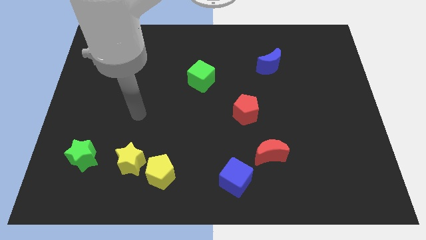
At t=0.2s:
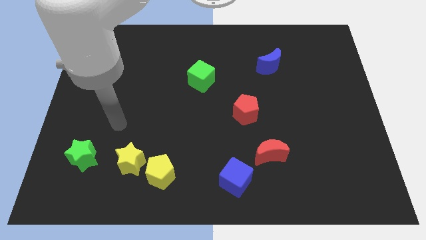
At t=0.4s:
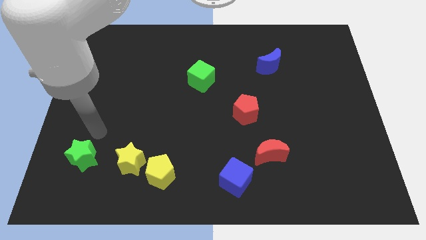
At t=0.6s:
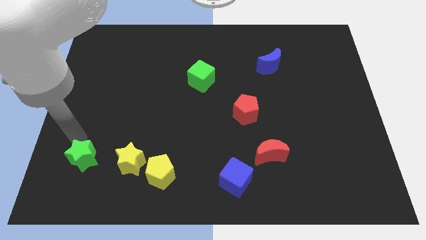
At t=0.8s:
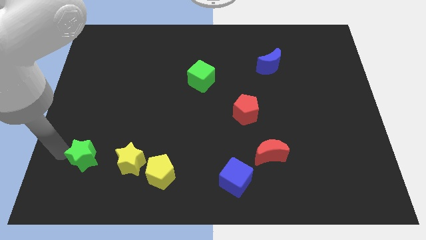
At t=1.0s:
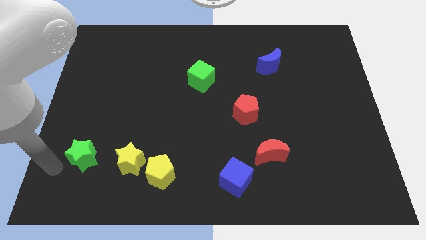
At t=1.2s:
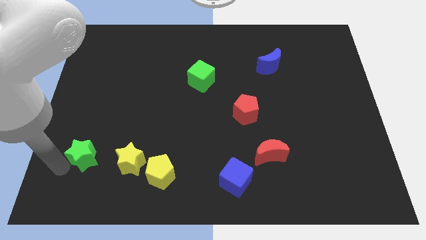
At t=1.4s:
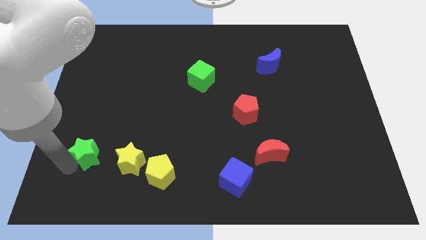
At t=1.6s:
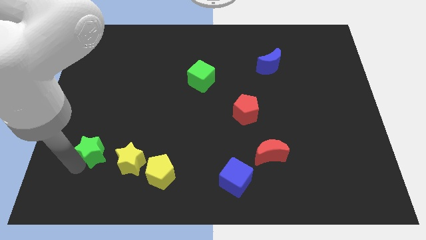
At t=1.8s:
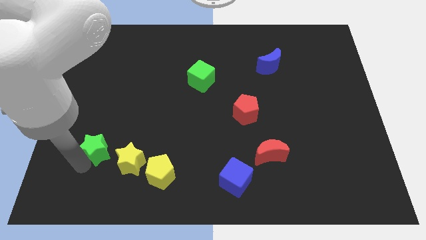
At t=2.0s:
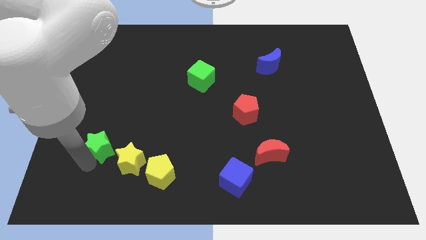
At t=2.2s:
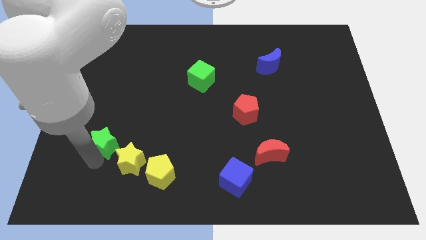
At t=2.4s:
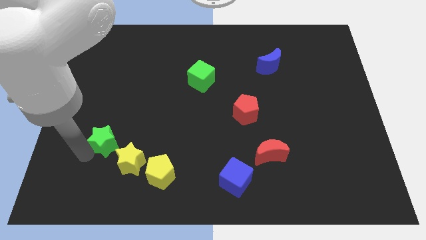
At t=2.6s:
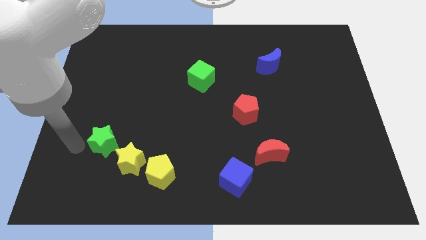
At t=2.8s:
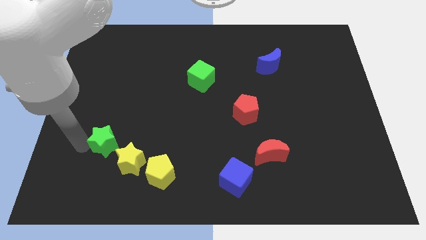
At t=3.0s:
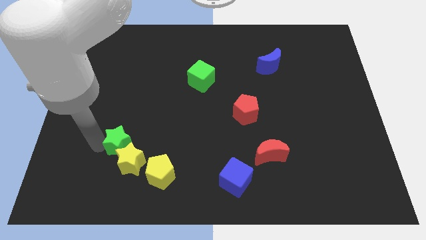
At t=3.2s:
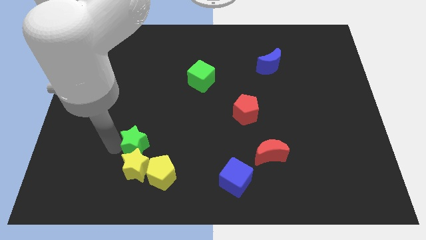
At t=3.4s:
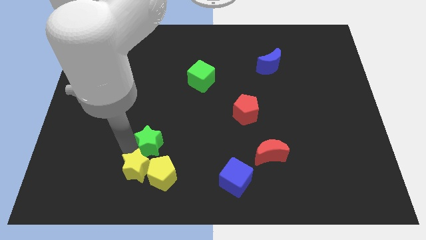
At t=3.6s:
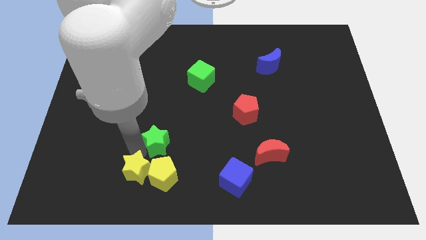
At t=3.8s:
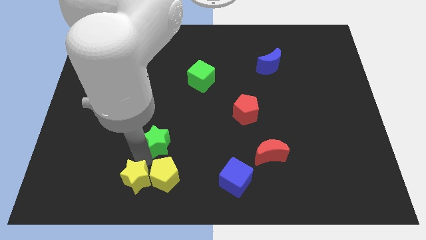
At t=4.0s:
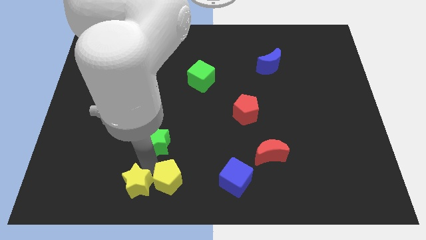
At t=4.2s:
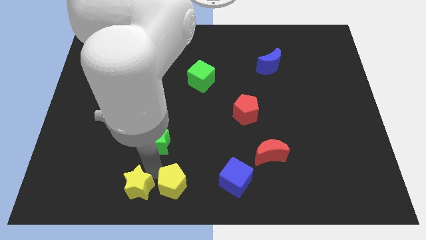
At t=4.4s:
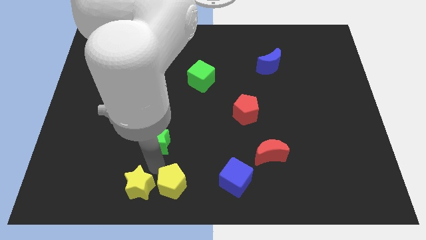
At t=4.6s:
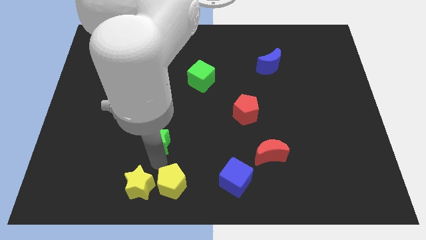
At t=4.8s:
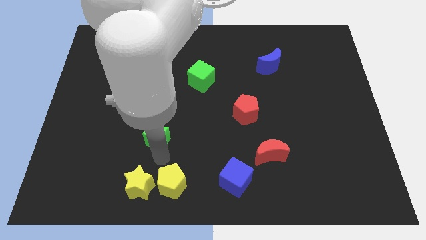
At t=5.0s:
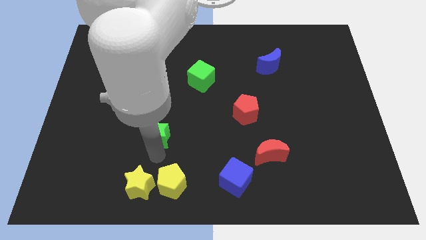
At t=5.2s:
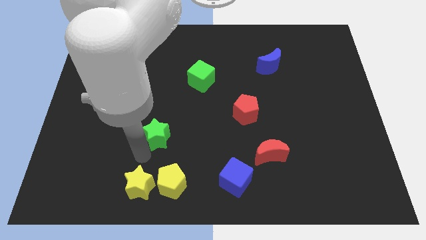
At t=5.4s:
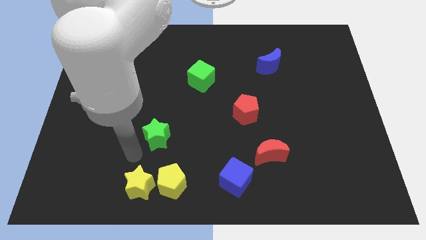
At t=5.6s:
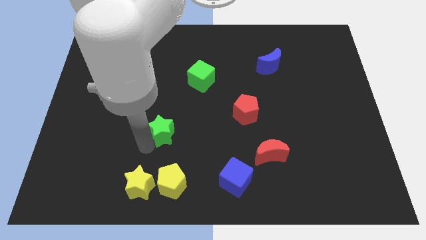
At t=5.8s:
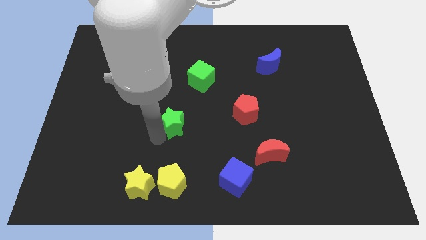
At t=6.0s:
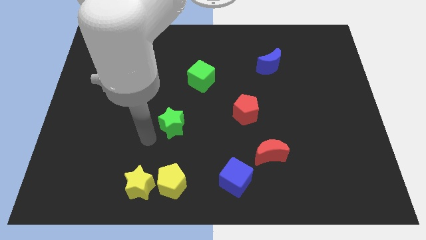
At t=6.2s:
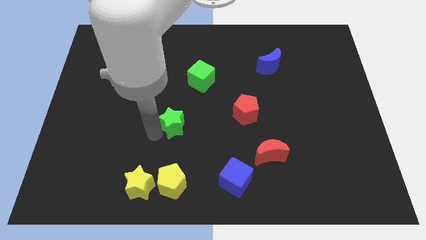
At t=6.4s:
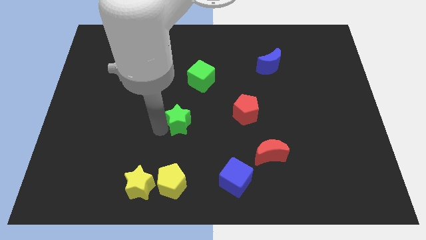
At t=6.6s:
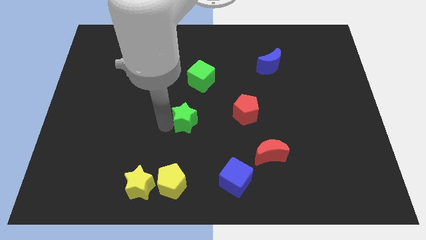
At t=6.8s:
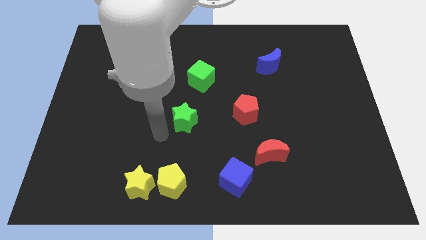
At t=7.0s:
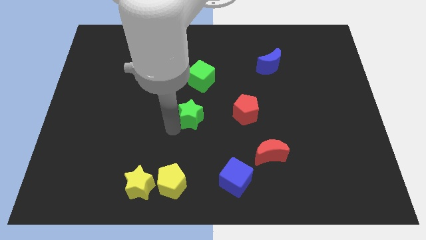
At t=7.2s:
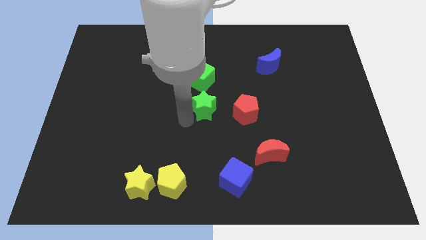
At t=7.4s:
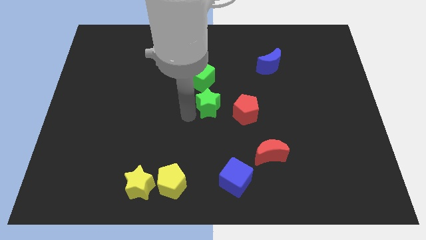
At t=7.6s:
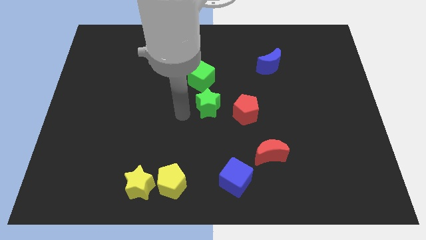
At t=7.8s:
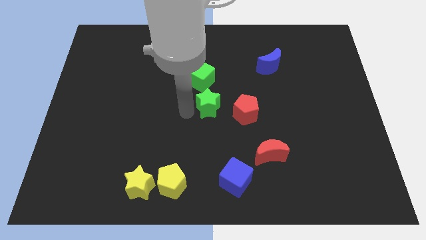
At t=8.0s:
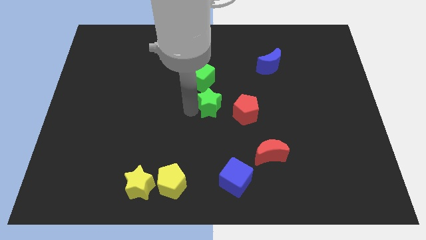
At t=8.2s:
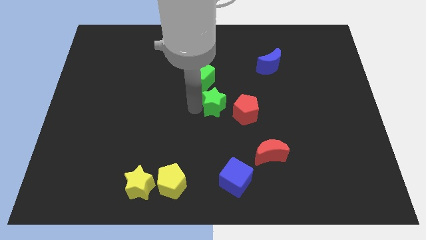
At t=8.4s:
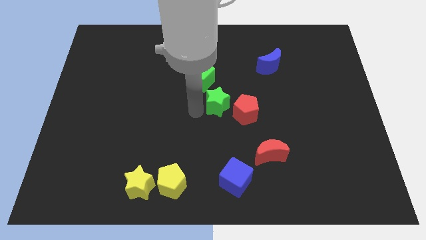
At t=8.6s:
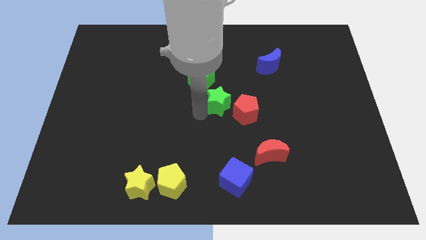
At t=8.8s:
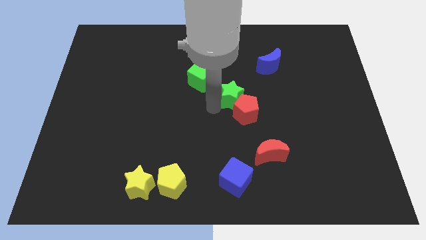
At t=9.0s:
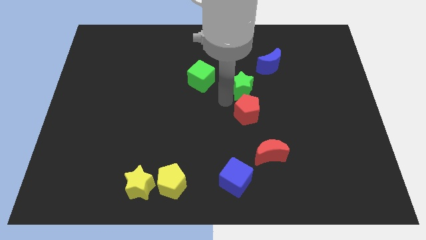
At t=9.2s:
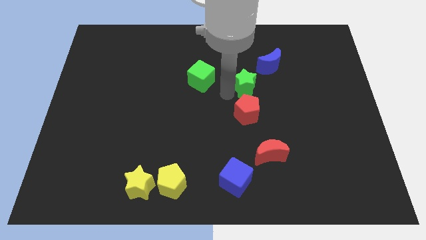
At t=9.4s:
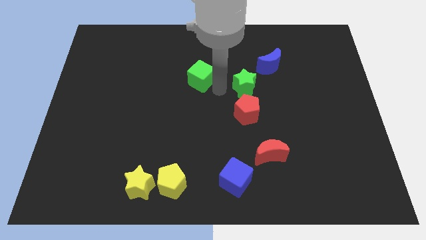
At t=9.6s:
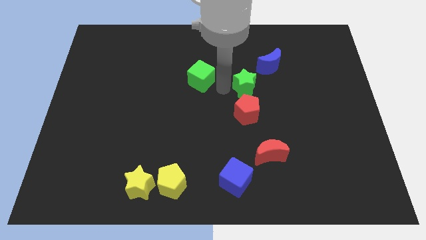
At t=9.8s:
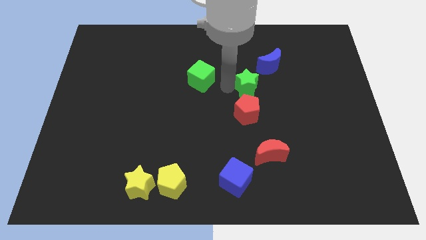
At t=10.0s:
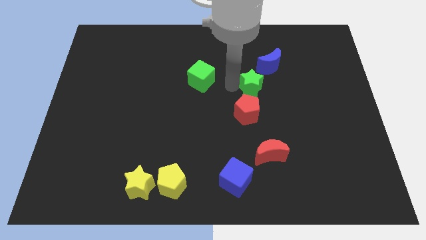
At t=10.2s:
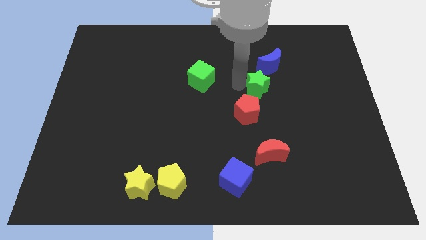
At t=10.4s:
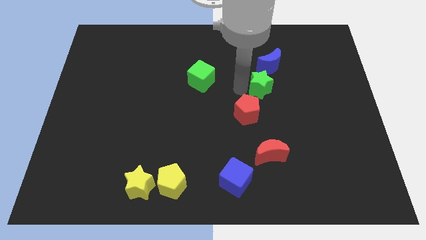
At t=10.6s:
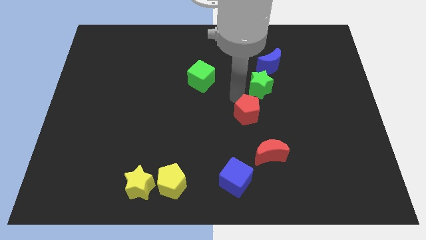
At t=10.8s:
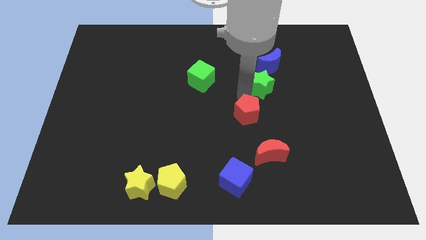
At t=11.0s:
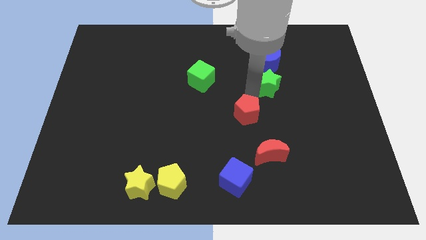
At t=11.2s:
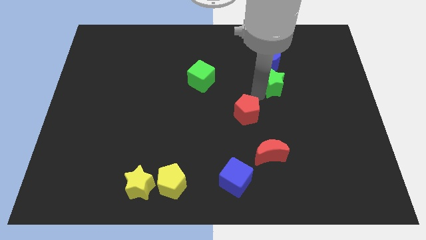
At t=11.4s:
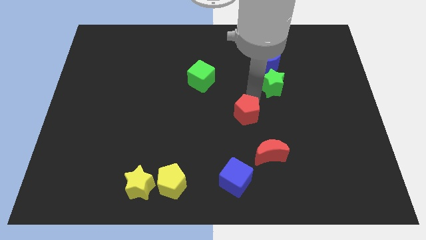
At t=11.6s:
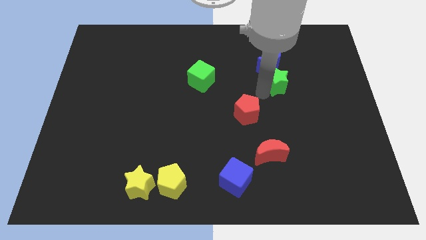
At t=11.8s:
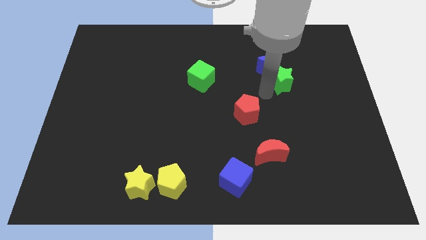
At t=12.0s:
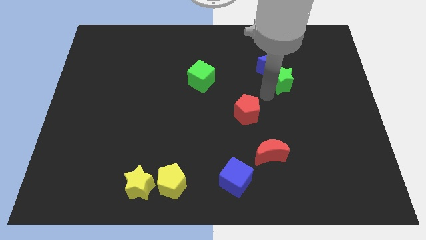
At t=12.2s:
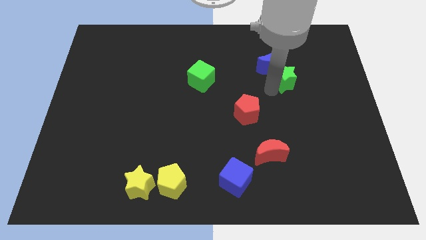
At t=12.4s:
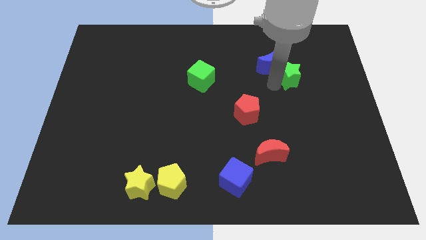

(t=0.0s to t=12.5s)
put the green star just right of the blue moon

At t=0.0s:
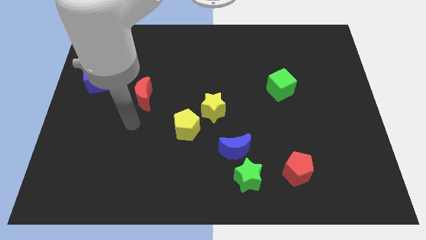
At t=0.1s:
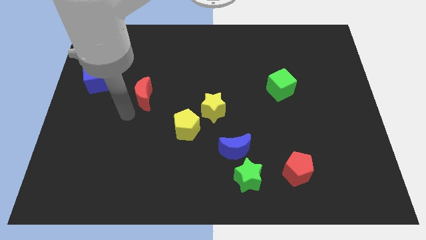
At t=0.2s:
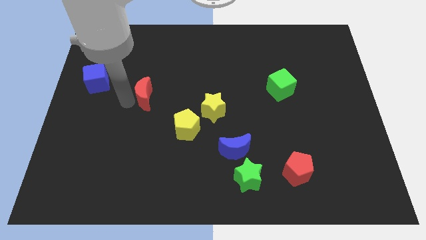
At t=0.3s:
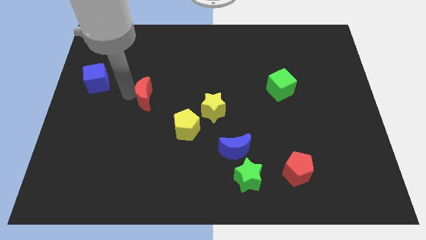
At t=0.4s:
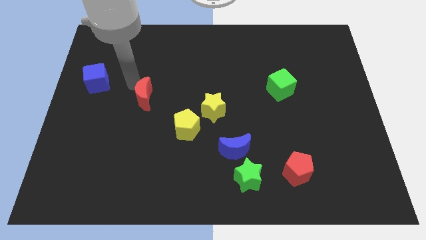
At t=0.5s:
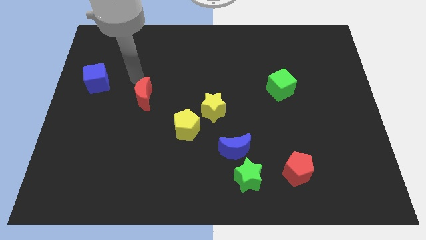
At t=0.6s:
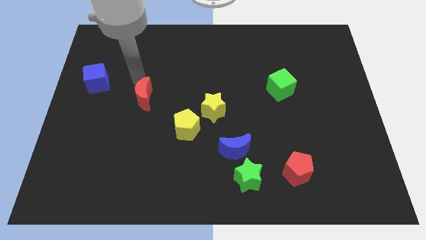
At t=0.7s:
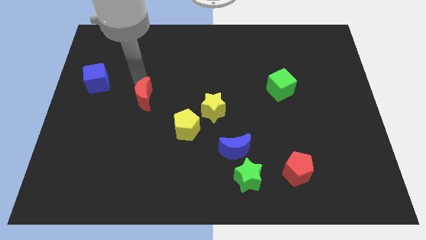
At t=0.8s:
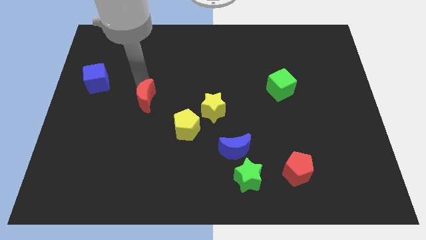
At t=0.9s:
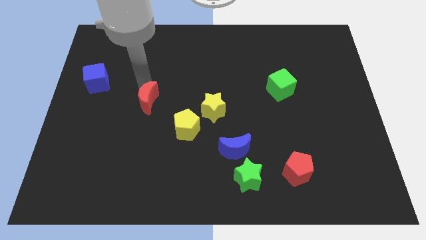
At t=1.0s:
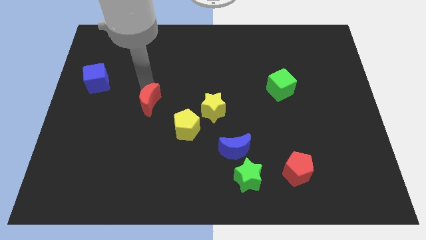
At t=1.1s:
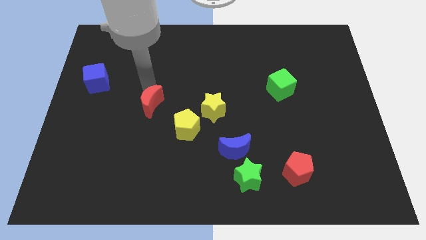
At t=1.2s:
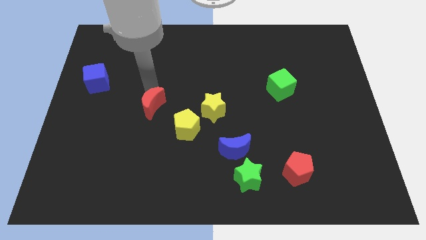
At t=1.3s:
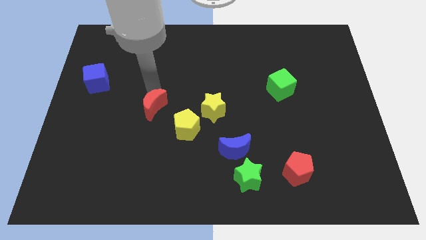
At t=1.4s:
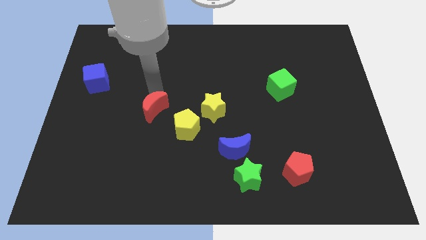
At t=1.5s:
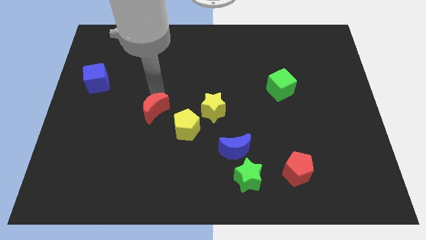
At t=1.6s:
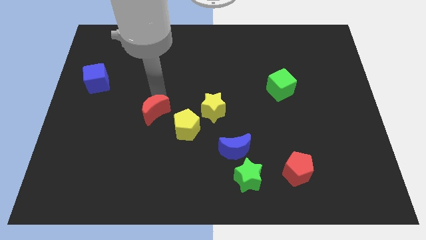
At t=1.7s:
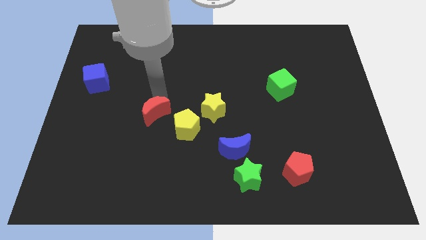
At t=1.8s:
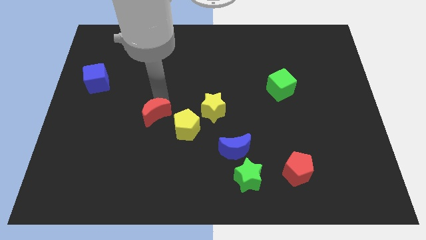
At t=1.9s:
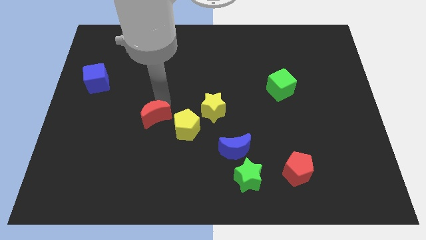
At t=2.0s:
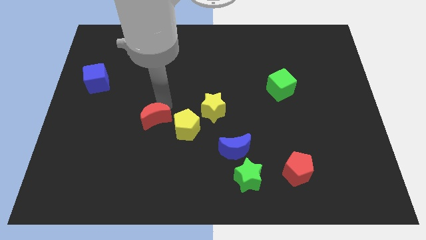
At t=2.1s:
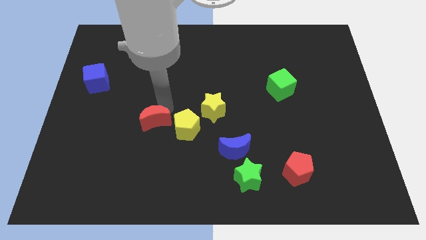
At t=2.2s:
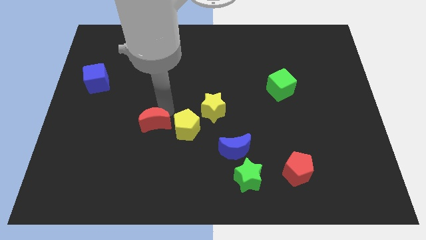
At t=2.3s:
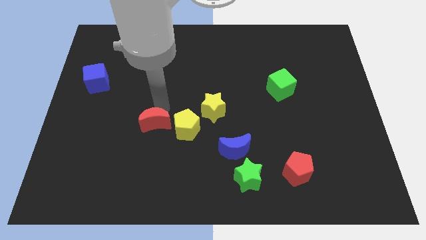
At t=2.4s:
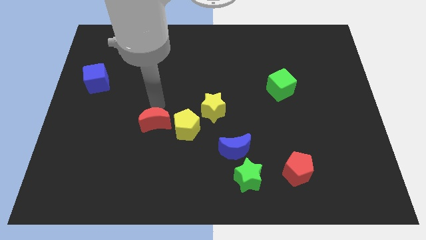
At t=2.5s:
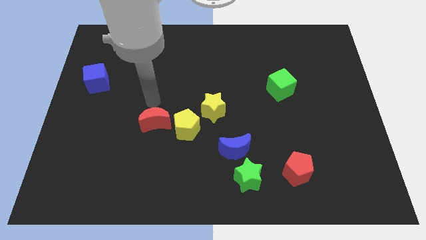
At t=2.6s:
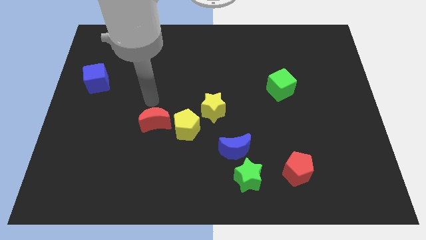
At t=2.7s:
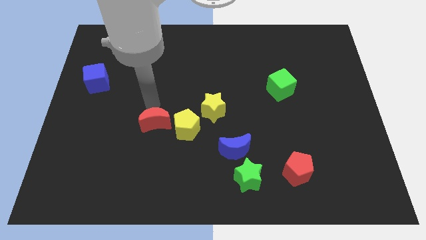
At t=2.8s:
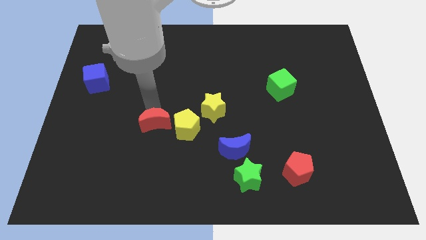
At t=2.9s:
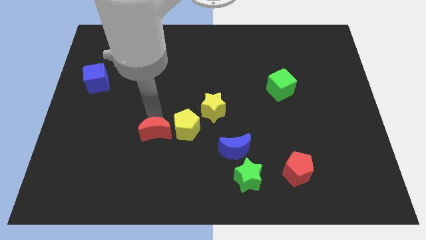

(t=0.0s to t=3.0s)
put the red moon to the bottom left side of the yellow pentagon
